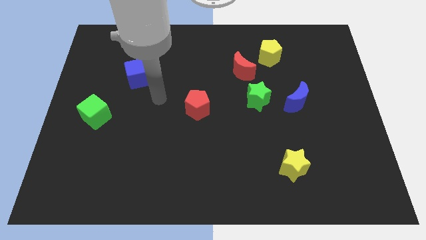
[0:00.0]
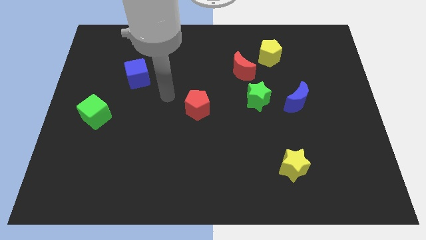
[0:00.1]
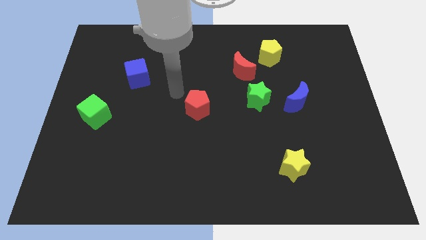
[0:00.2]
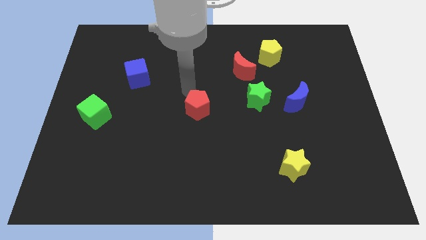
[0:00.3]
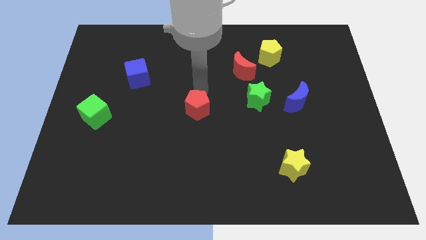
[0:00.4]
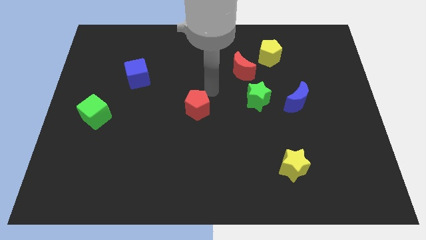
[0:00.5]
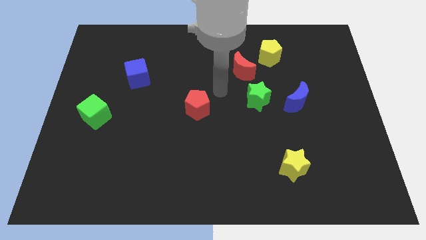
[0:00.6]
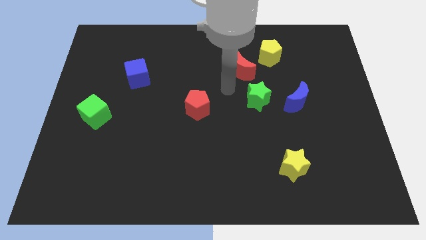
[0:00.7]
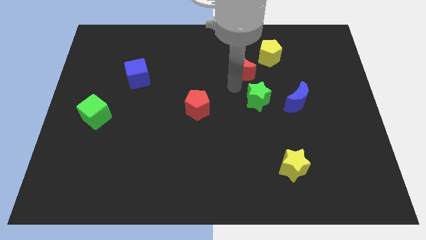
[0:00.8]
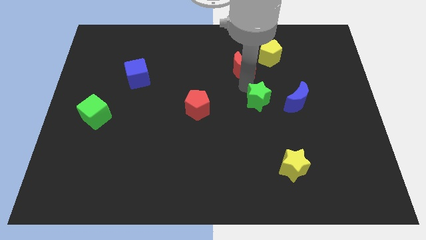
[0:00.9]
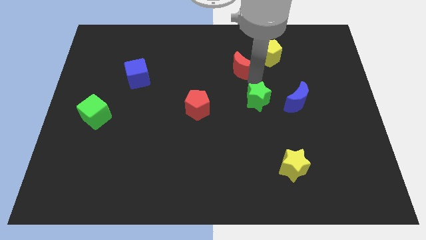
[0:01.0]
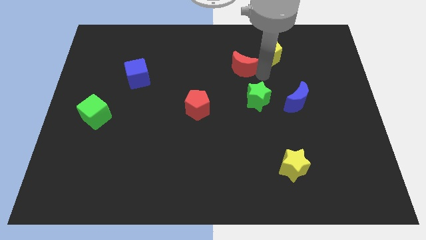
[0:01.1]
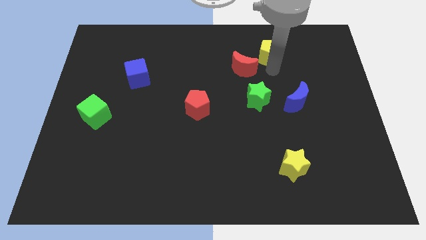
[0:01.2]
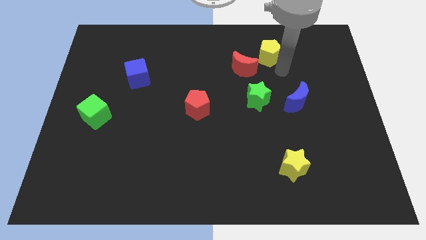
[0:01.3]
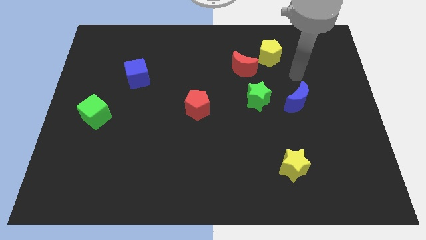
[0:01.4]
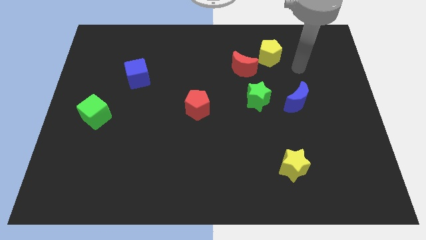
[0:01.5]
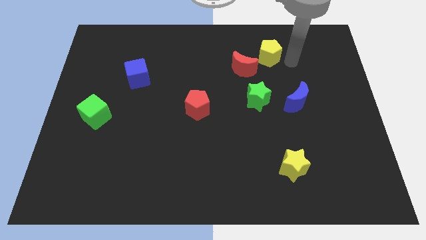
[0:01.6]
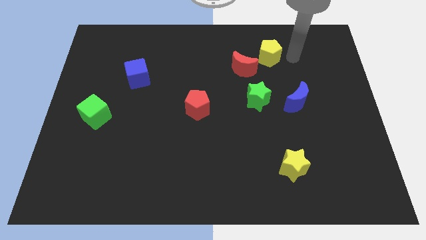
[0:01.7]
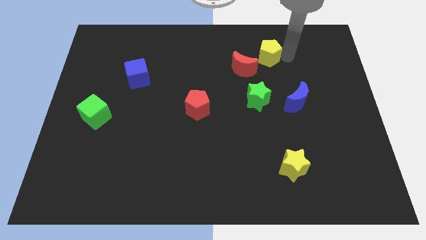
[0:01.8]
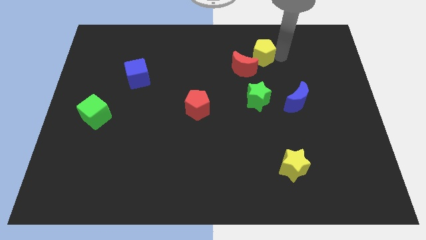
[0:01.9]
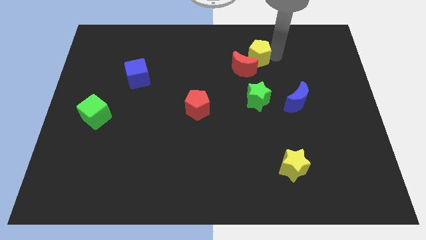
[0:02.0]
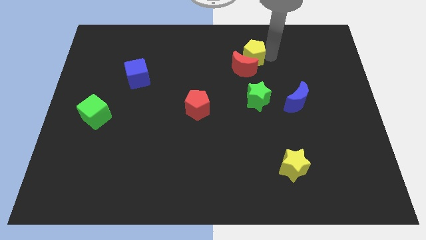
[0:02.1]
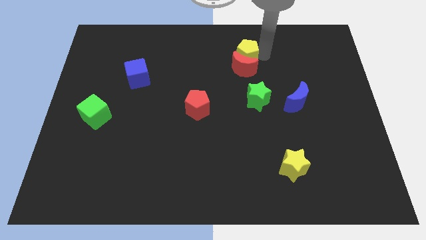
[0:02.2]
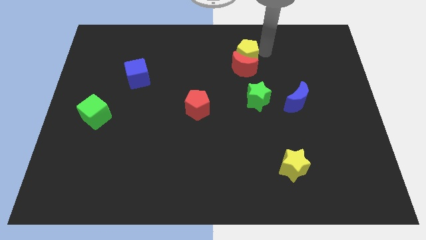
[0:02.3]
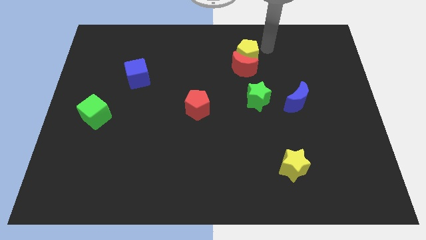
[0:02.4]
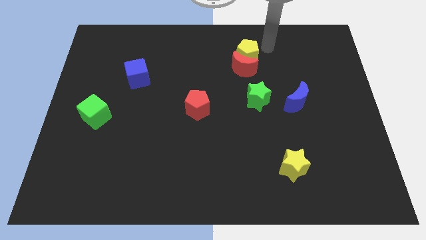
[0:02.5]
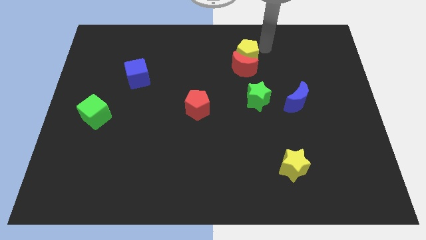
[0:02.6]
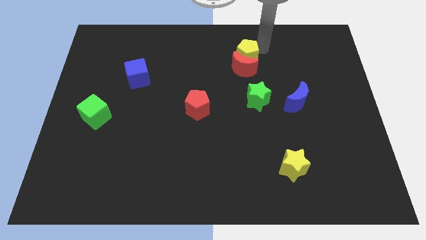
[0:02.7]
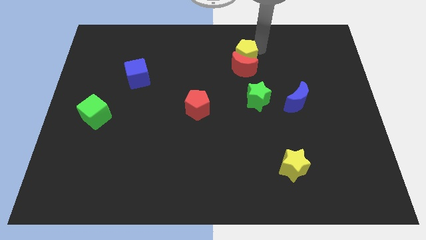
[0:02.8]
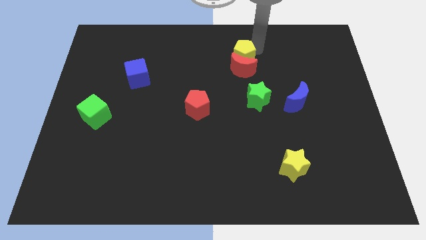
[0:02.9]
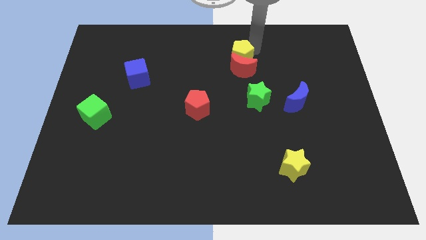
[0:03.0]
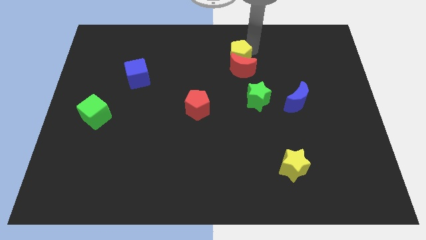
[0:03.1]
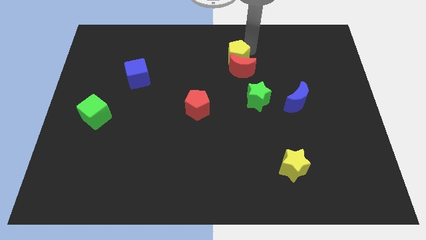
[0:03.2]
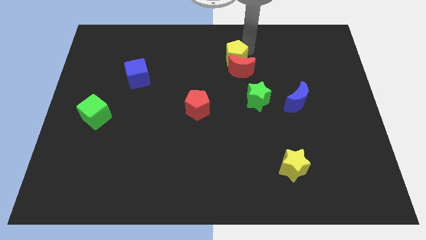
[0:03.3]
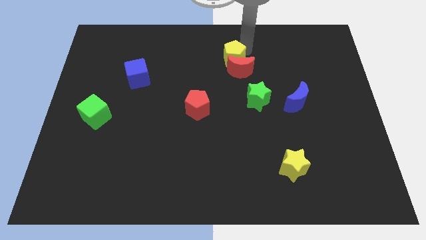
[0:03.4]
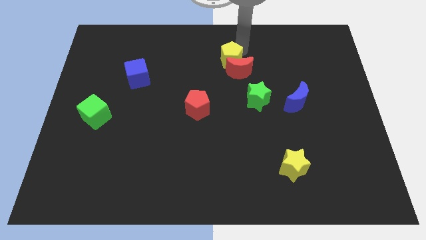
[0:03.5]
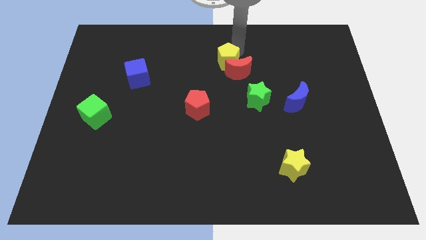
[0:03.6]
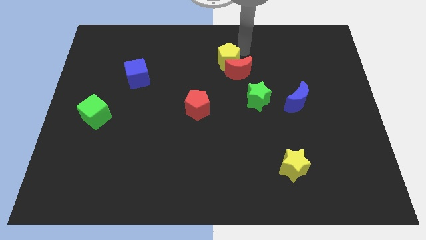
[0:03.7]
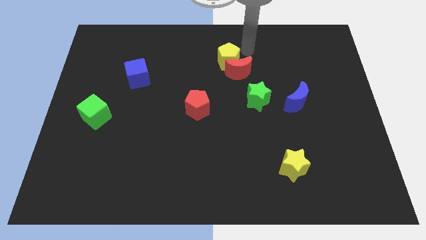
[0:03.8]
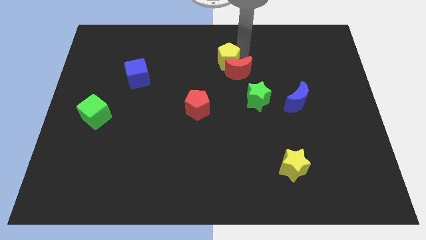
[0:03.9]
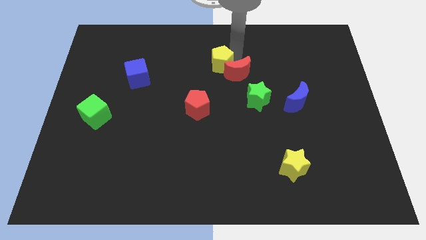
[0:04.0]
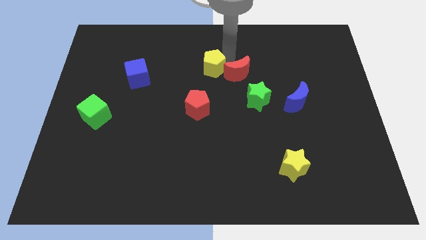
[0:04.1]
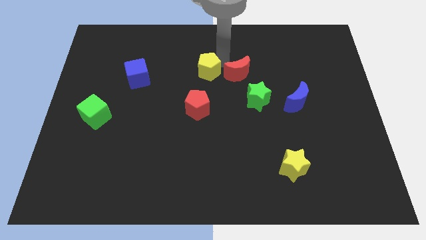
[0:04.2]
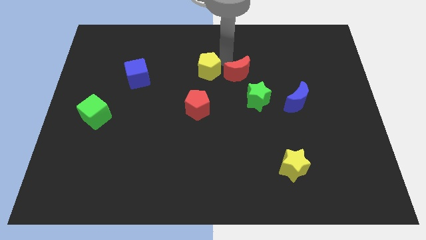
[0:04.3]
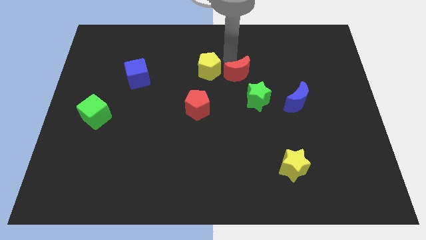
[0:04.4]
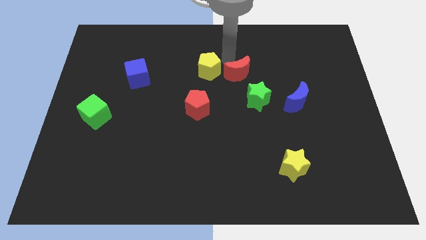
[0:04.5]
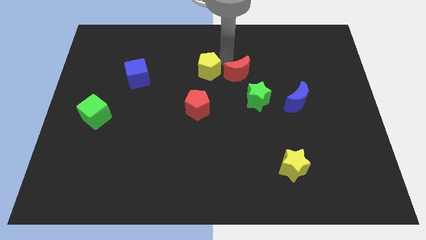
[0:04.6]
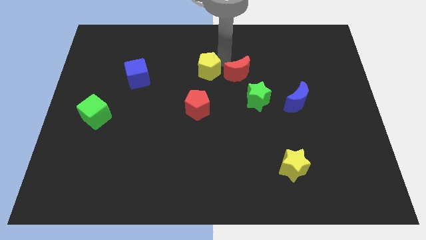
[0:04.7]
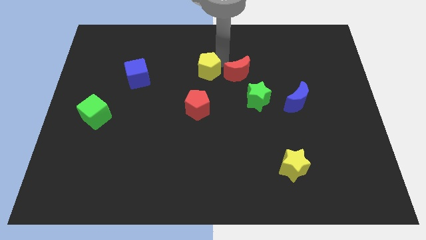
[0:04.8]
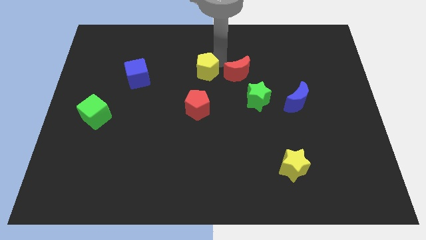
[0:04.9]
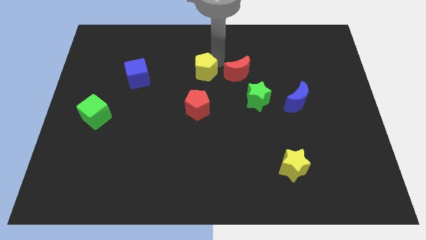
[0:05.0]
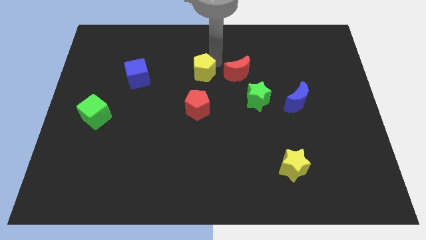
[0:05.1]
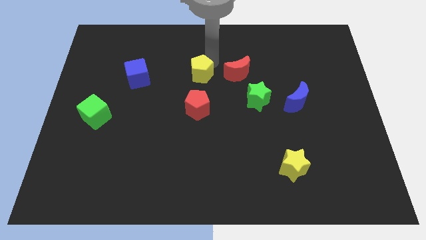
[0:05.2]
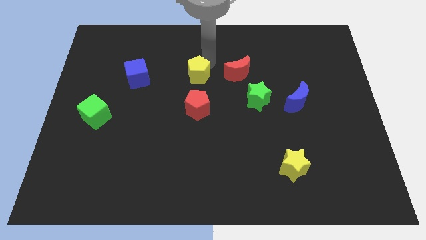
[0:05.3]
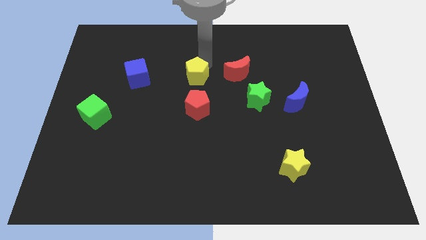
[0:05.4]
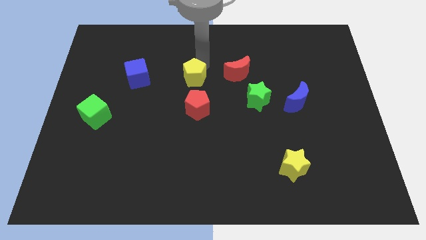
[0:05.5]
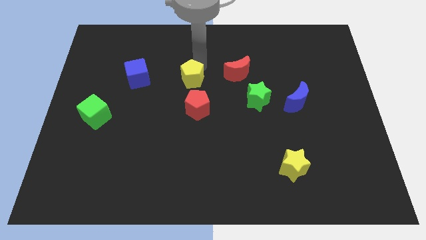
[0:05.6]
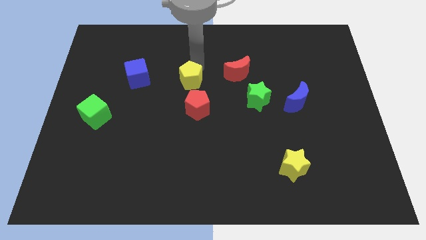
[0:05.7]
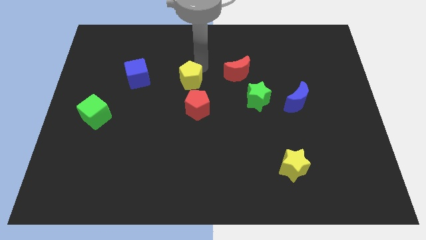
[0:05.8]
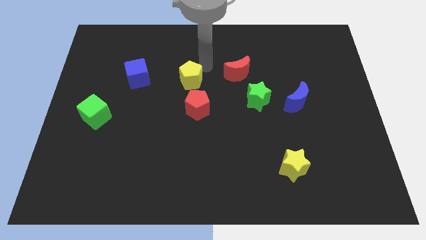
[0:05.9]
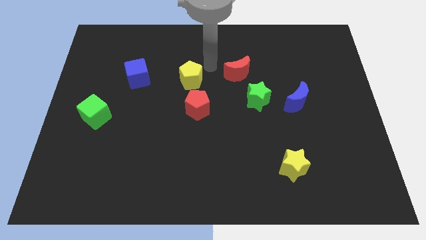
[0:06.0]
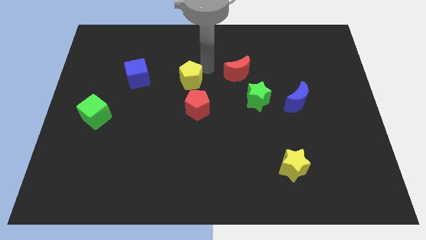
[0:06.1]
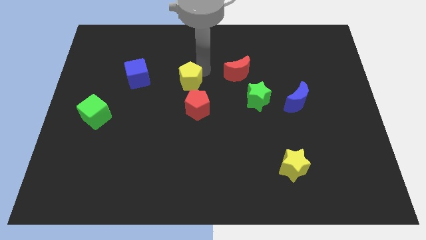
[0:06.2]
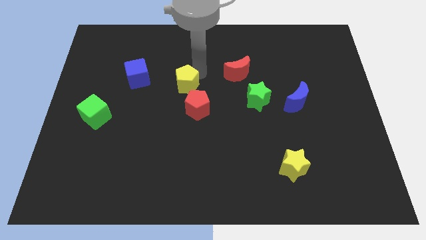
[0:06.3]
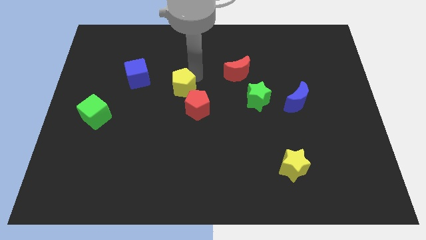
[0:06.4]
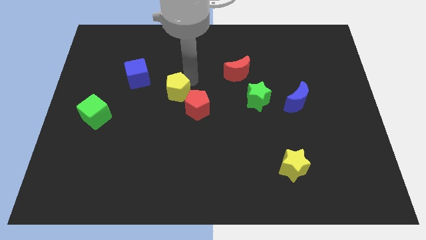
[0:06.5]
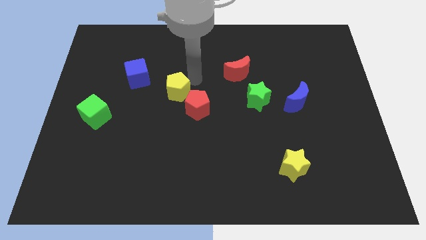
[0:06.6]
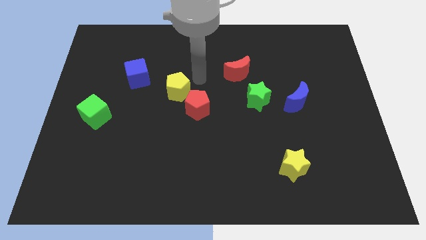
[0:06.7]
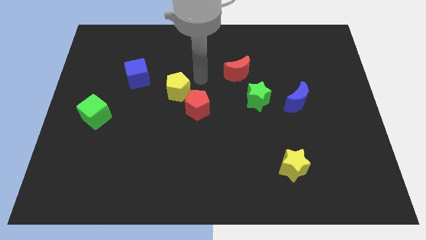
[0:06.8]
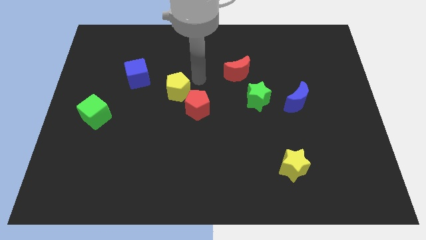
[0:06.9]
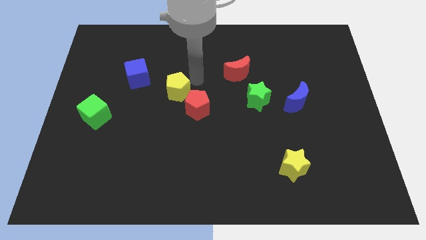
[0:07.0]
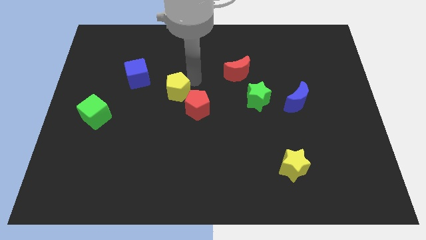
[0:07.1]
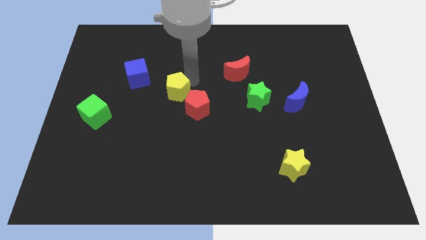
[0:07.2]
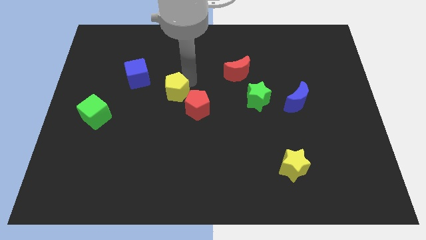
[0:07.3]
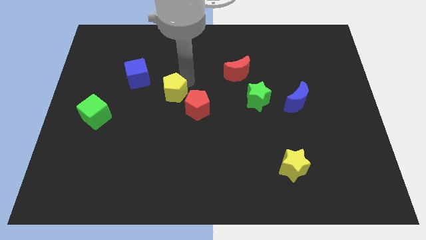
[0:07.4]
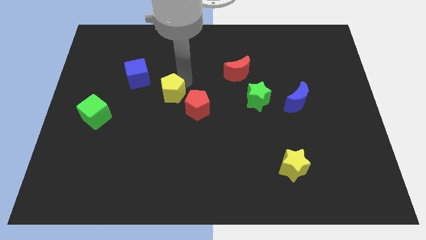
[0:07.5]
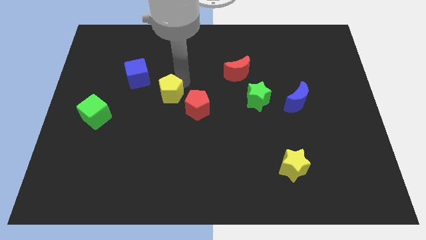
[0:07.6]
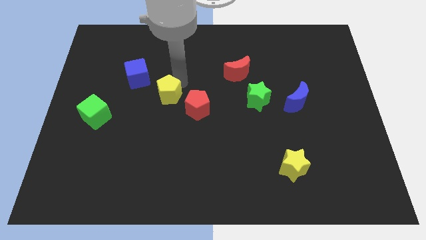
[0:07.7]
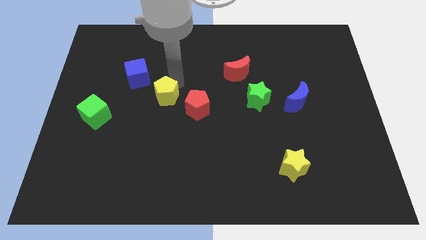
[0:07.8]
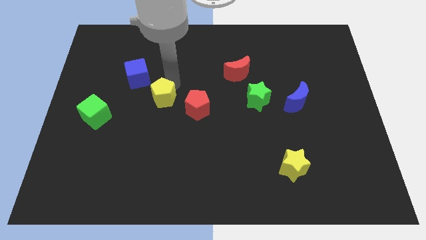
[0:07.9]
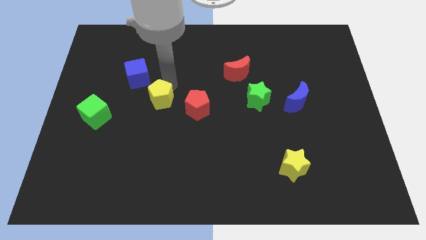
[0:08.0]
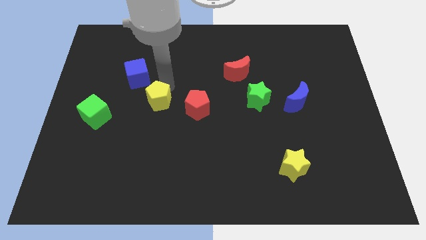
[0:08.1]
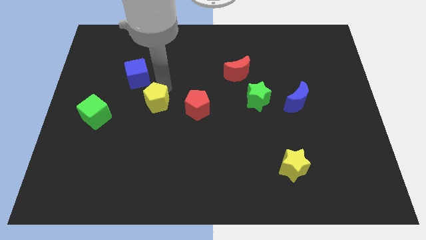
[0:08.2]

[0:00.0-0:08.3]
slide the yellow pentagon right of the green cube
